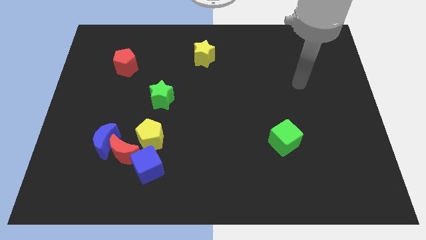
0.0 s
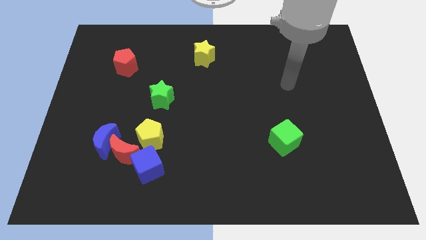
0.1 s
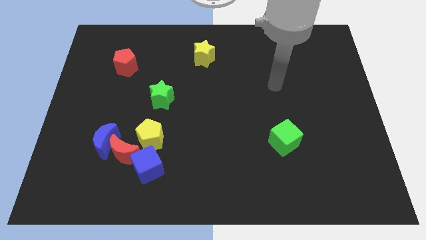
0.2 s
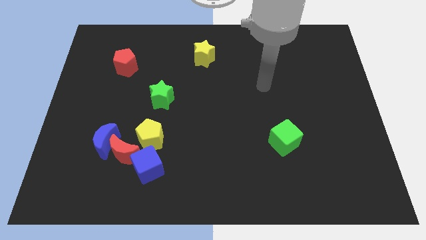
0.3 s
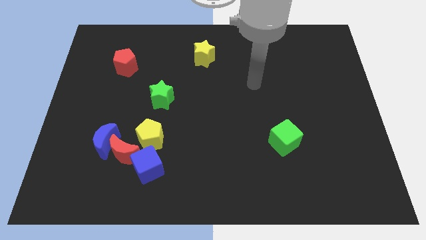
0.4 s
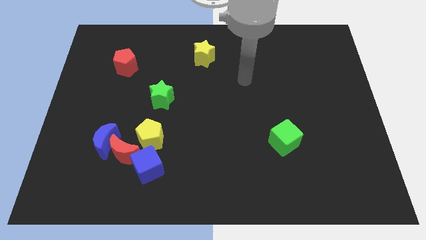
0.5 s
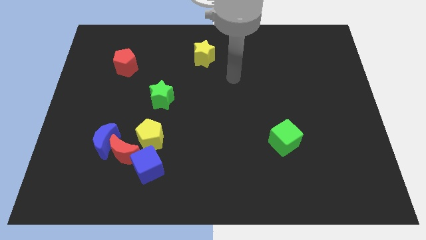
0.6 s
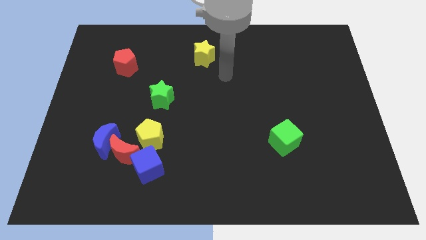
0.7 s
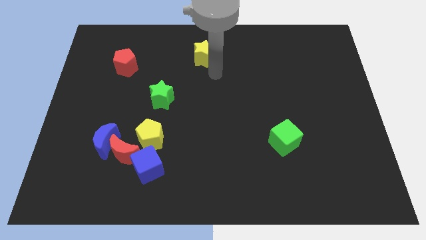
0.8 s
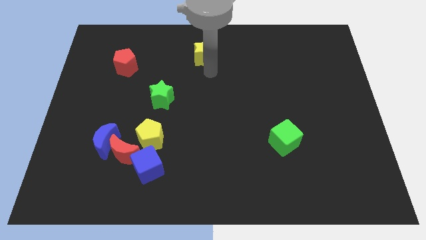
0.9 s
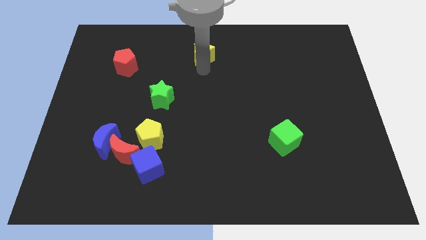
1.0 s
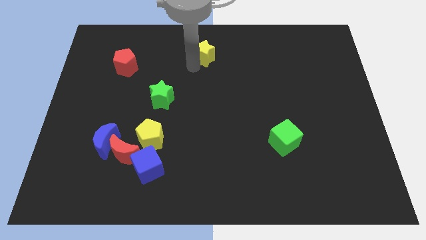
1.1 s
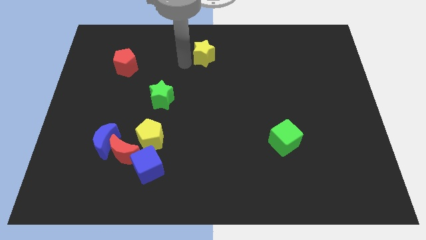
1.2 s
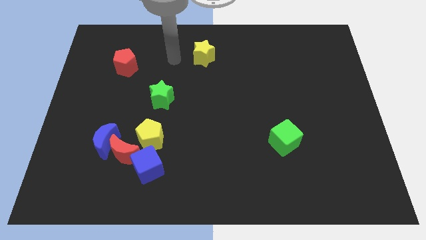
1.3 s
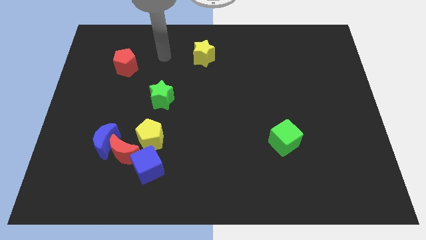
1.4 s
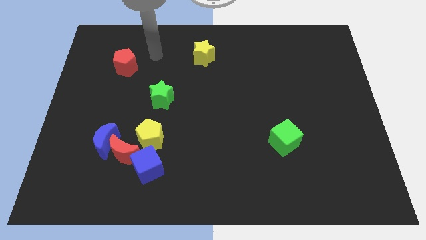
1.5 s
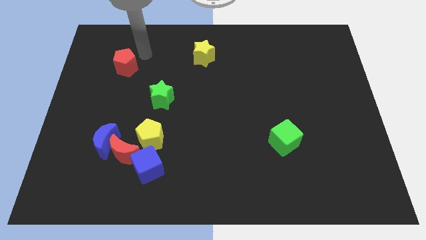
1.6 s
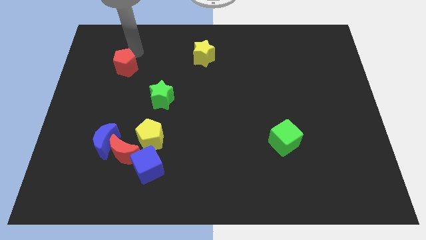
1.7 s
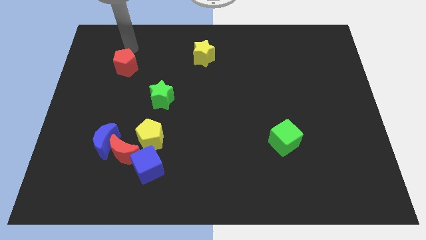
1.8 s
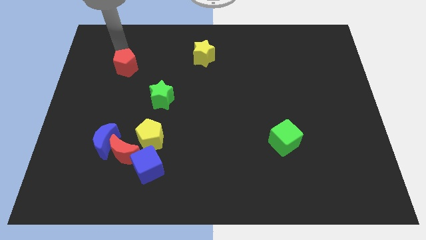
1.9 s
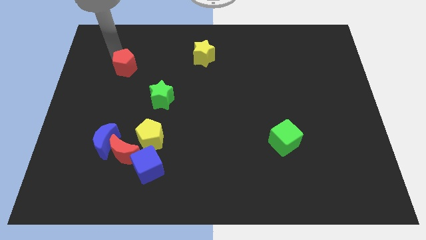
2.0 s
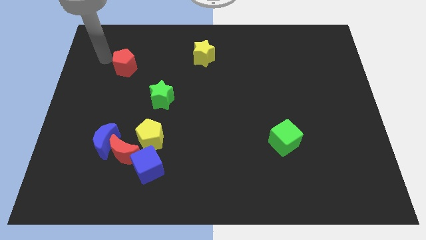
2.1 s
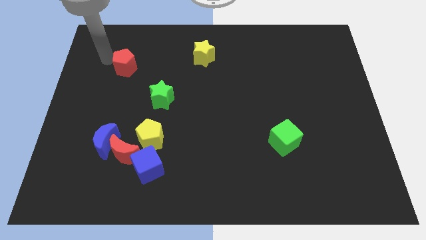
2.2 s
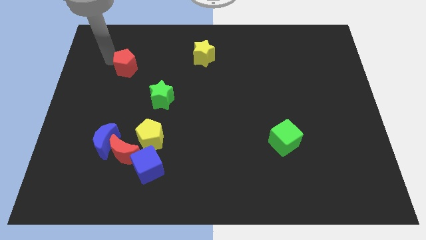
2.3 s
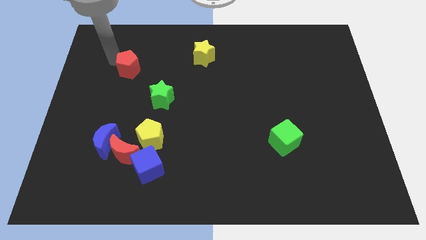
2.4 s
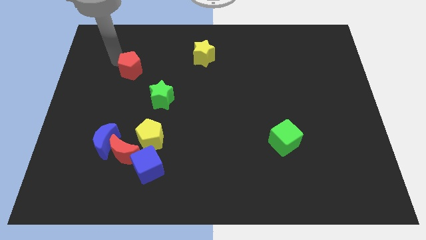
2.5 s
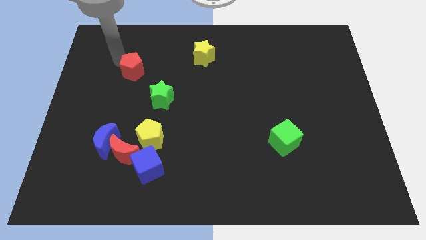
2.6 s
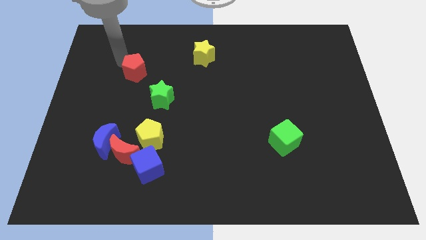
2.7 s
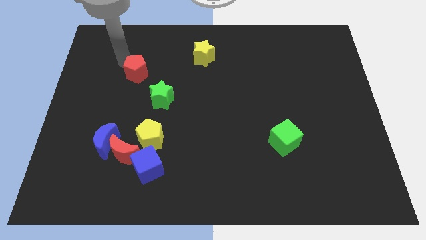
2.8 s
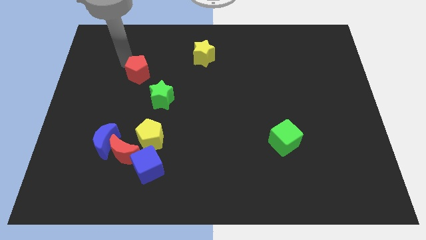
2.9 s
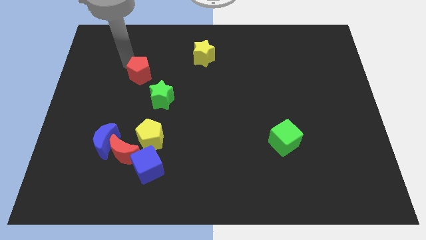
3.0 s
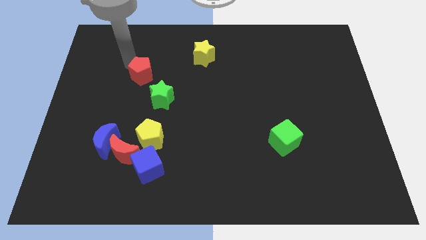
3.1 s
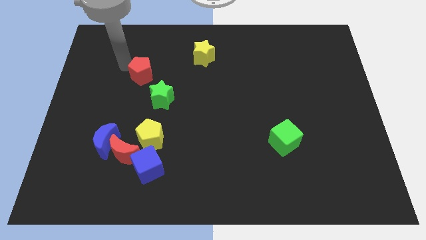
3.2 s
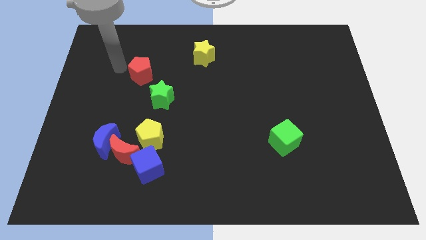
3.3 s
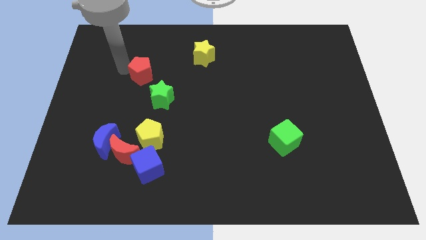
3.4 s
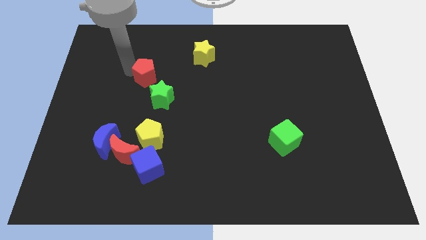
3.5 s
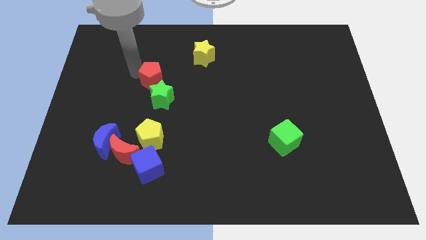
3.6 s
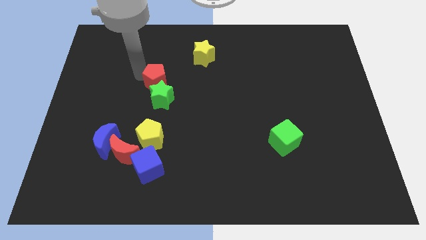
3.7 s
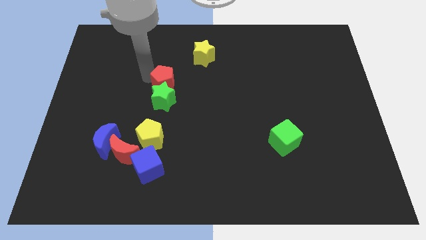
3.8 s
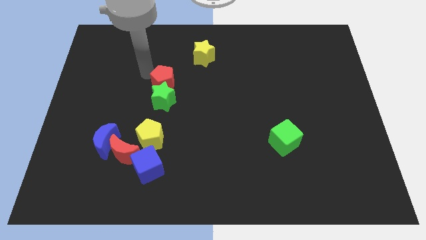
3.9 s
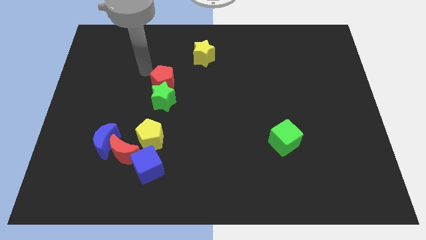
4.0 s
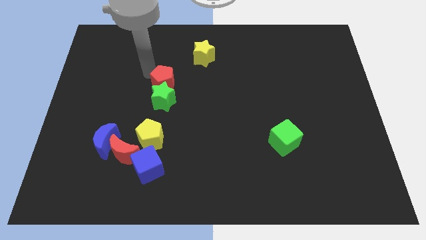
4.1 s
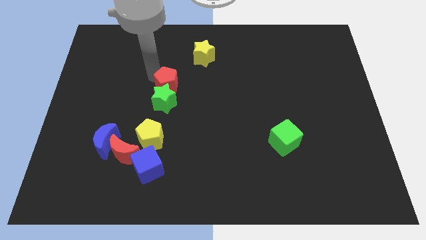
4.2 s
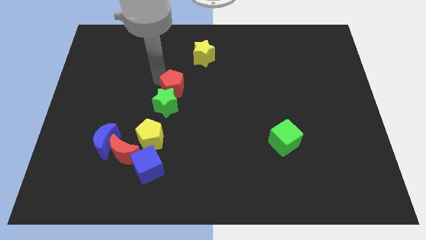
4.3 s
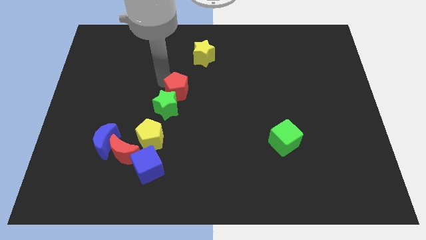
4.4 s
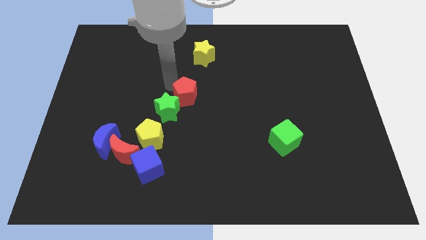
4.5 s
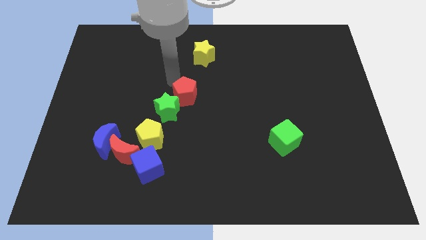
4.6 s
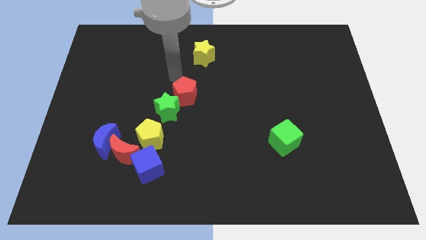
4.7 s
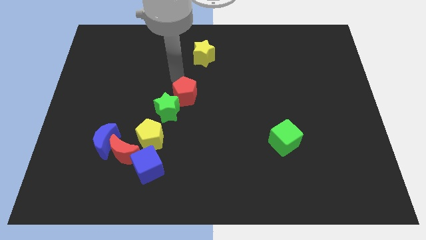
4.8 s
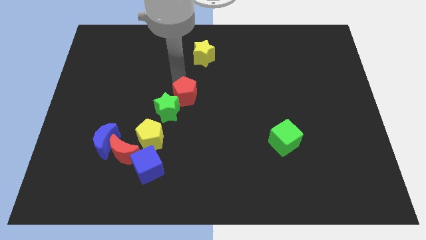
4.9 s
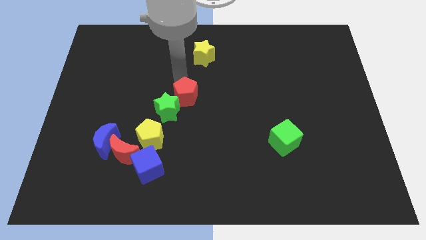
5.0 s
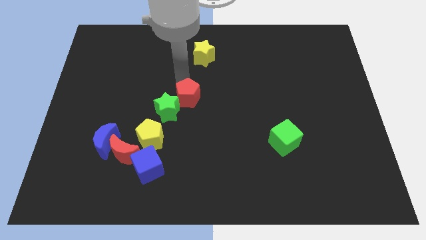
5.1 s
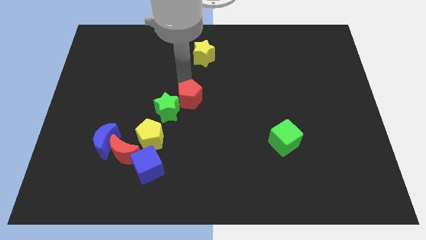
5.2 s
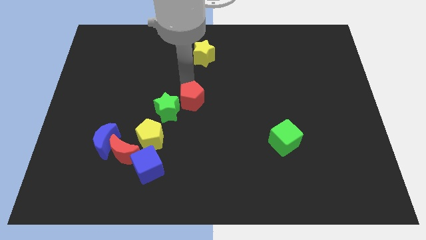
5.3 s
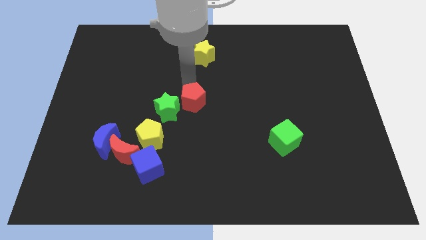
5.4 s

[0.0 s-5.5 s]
push the red pentagon down and then right

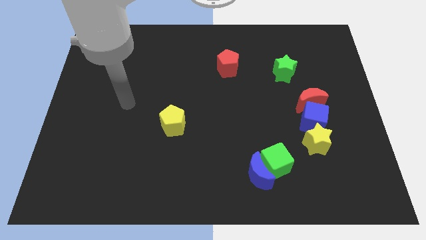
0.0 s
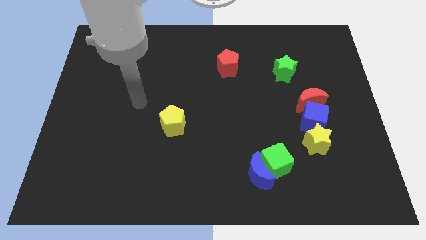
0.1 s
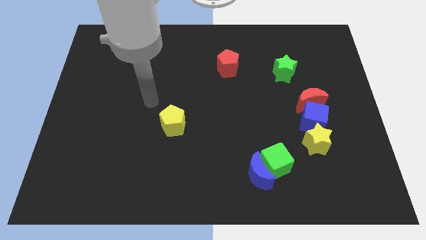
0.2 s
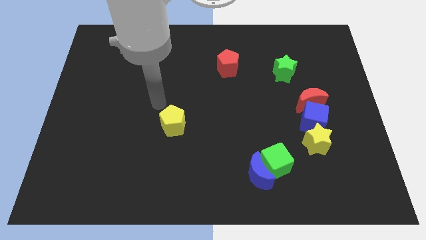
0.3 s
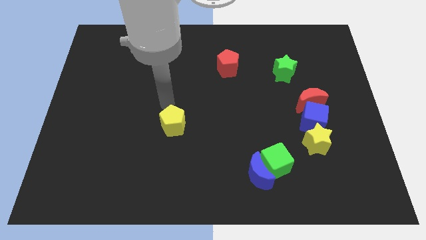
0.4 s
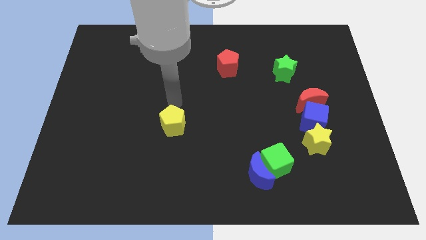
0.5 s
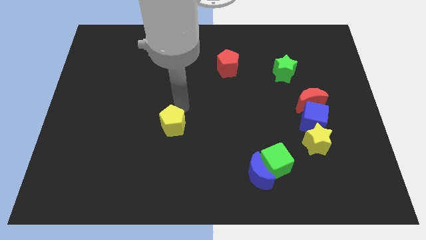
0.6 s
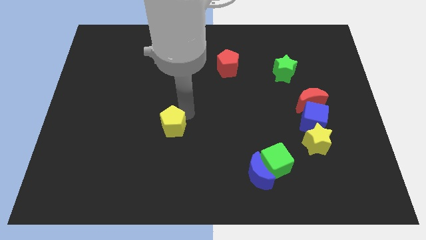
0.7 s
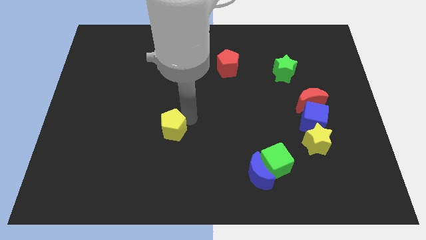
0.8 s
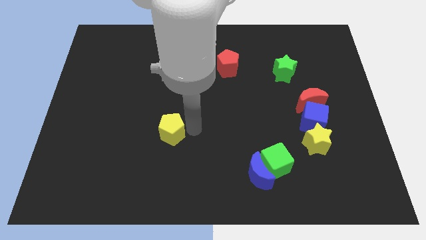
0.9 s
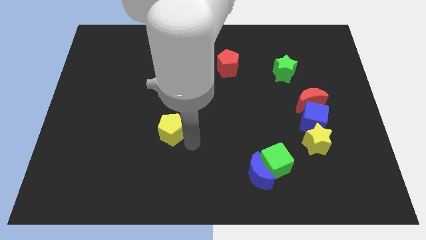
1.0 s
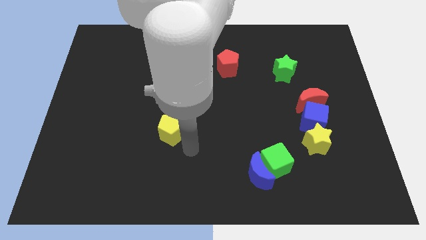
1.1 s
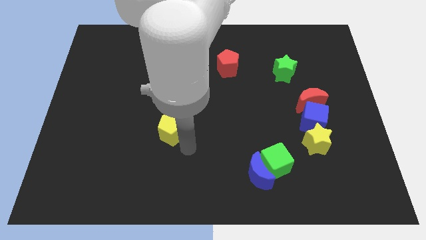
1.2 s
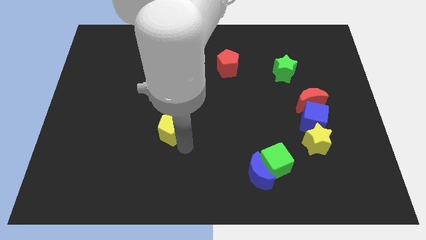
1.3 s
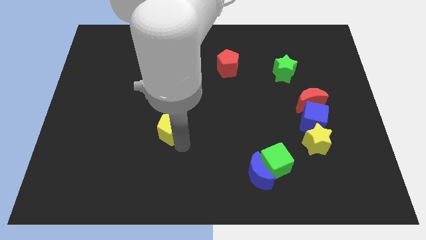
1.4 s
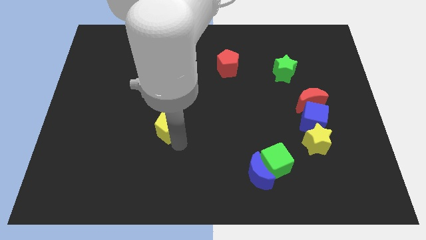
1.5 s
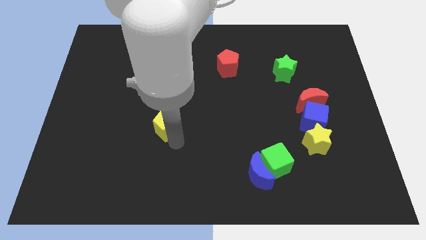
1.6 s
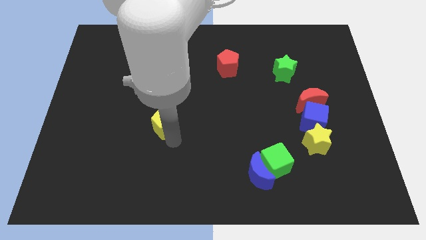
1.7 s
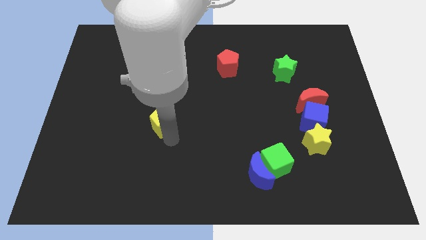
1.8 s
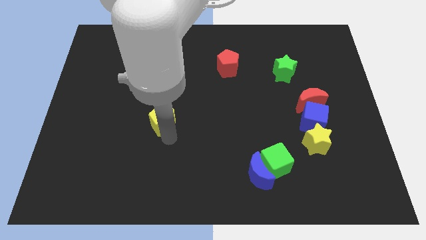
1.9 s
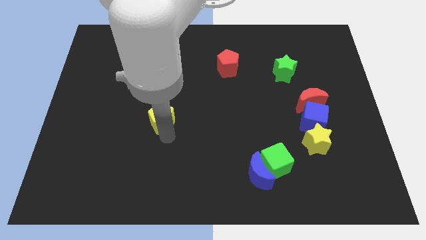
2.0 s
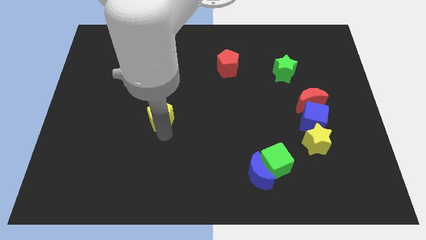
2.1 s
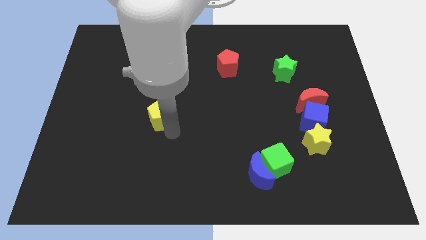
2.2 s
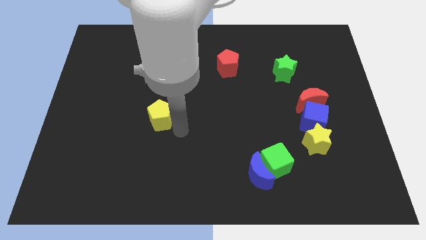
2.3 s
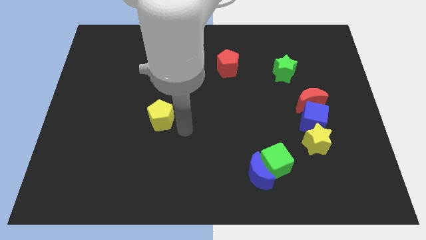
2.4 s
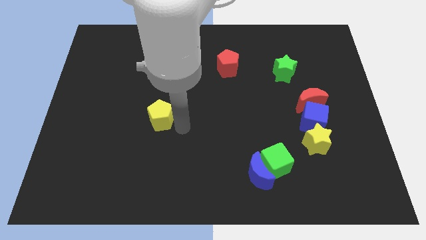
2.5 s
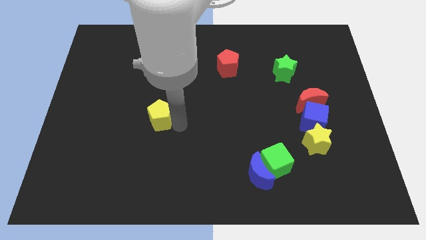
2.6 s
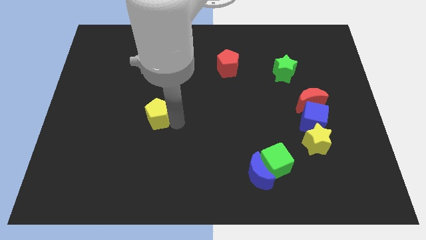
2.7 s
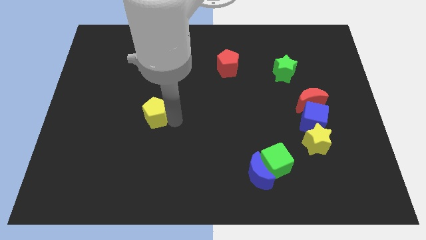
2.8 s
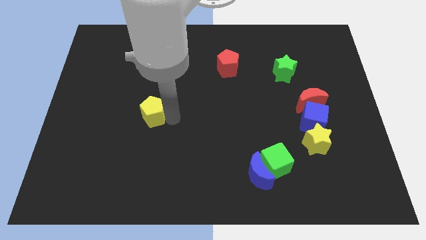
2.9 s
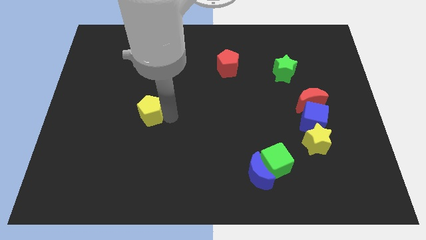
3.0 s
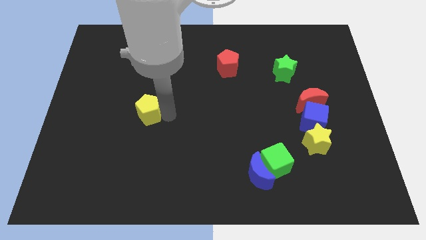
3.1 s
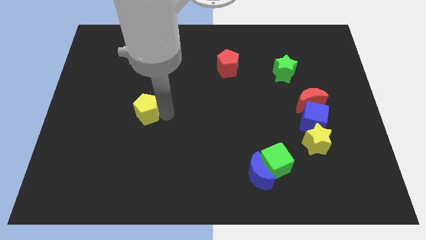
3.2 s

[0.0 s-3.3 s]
move the yellow pentagon somewhat diagonally upwards and left
